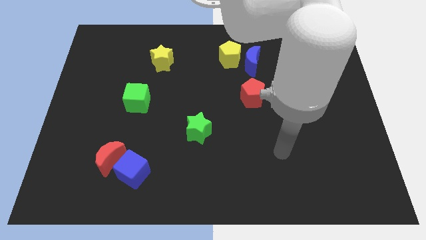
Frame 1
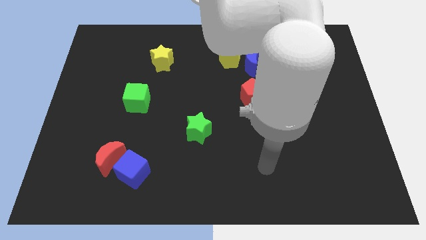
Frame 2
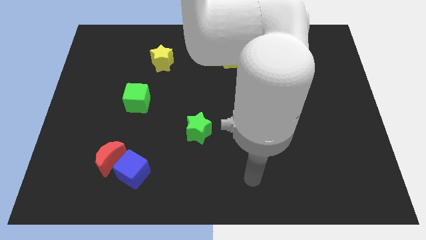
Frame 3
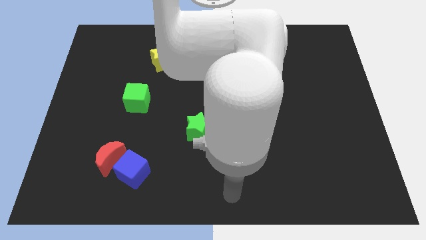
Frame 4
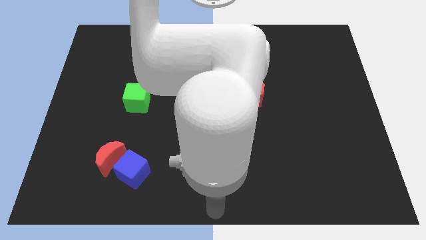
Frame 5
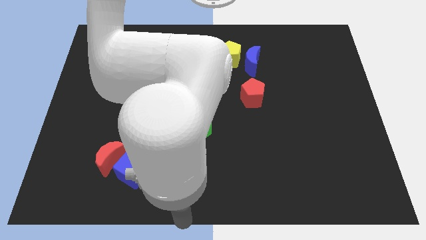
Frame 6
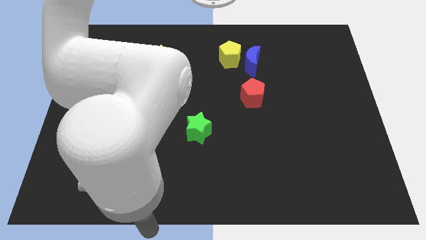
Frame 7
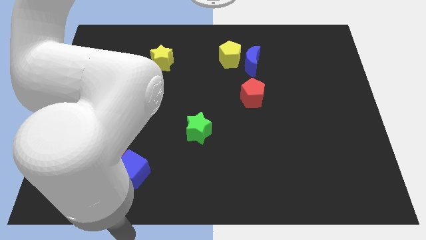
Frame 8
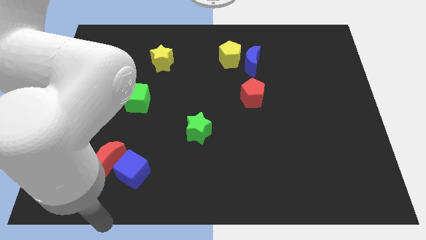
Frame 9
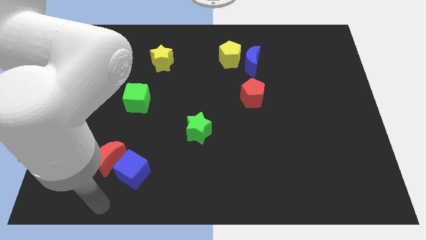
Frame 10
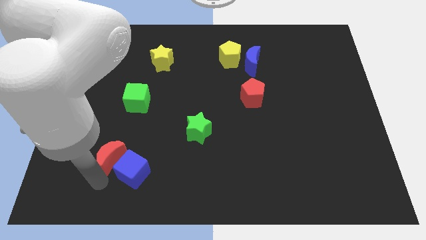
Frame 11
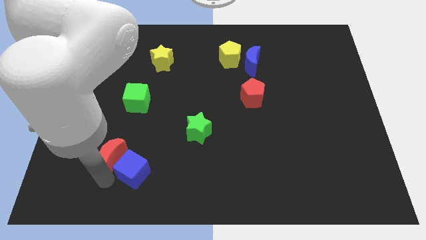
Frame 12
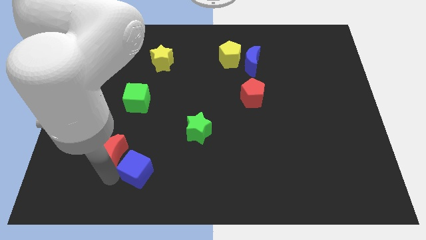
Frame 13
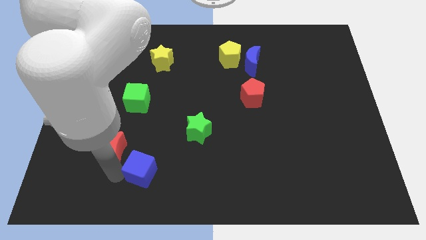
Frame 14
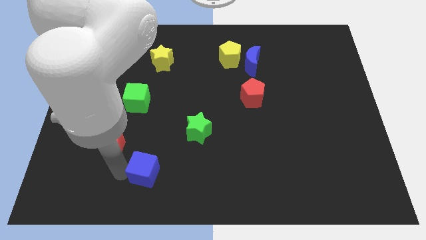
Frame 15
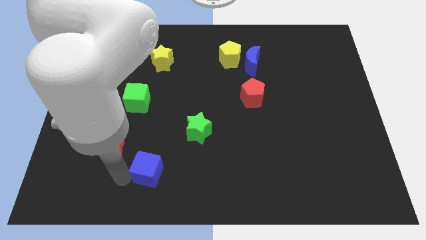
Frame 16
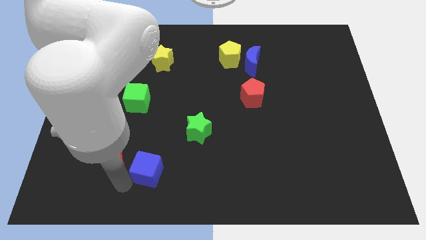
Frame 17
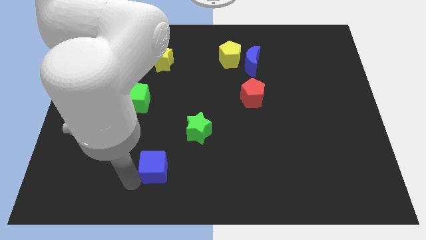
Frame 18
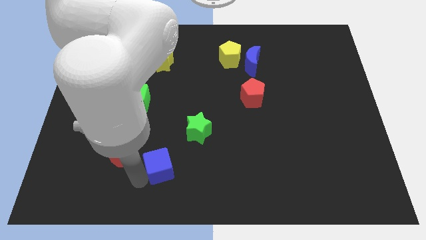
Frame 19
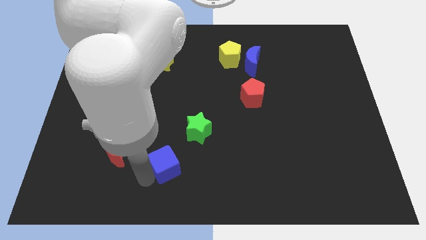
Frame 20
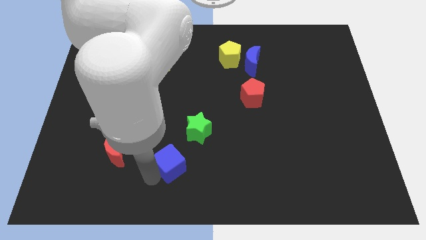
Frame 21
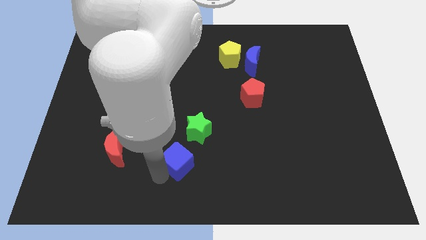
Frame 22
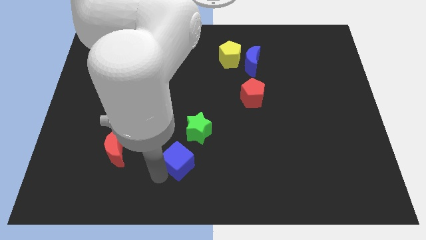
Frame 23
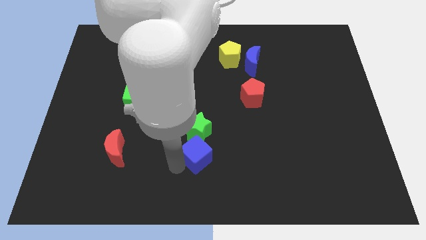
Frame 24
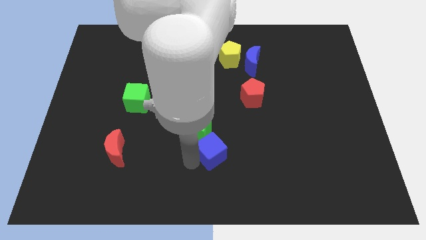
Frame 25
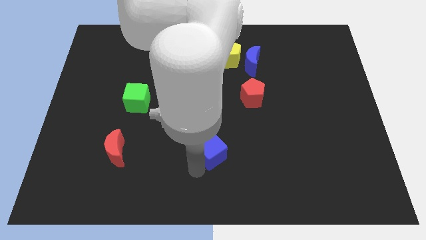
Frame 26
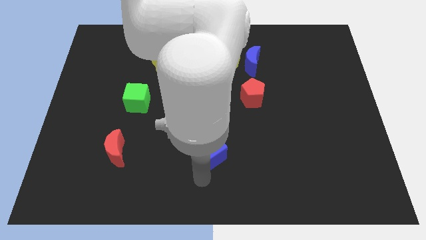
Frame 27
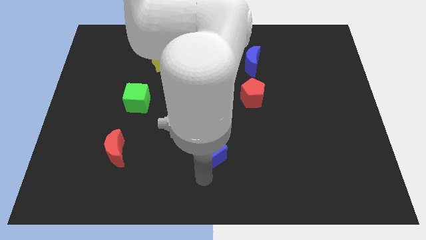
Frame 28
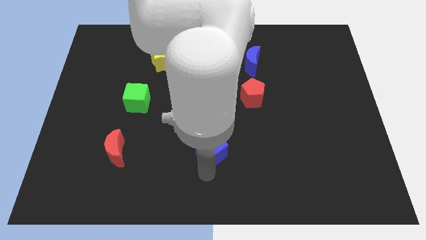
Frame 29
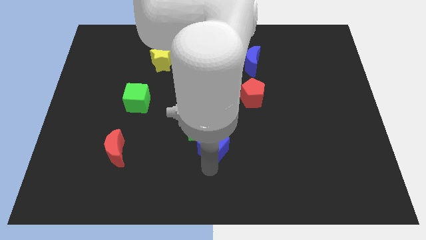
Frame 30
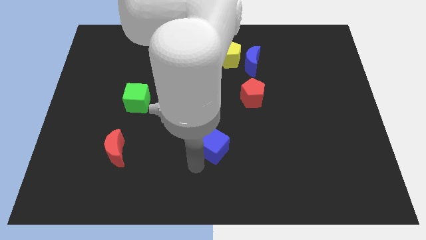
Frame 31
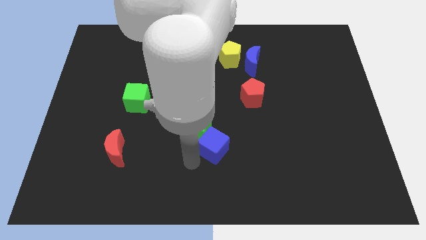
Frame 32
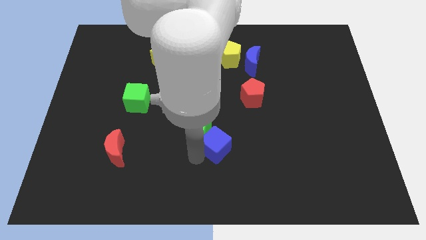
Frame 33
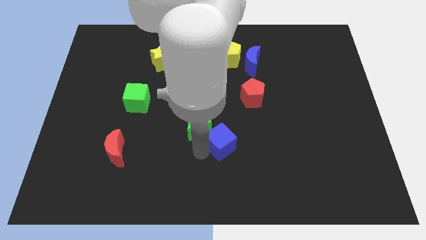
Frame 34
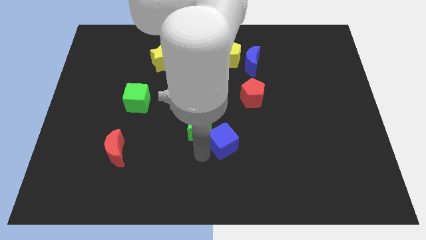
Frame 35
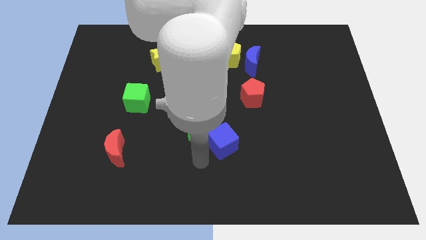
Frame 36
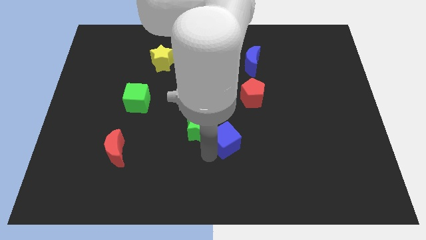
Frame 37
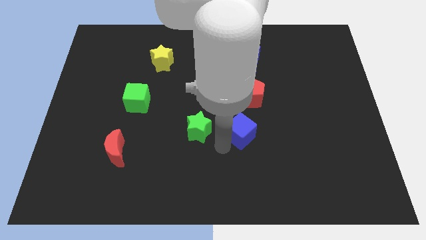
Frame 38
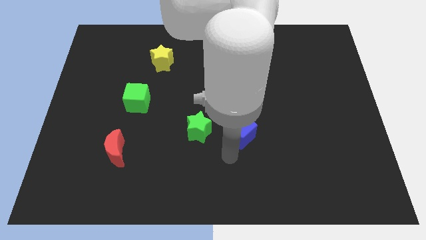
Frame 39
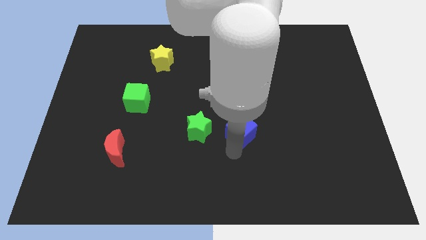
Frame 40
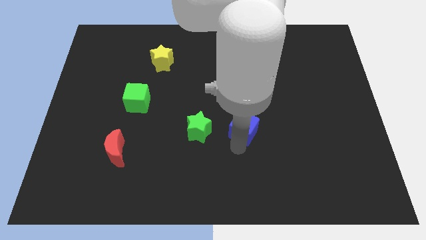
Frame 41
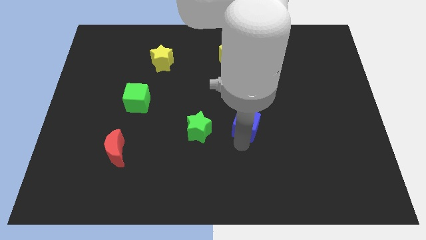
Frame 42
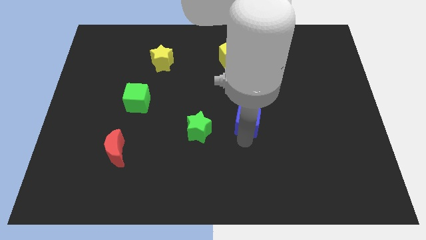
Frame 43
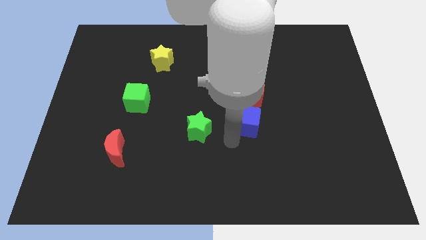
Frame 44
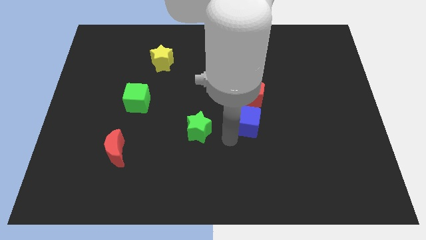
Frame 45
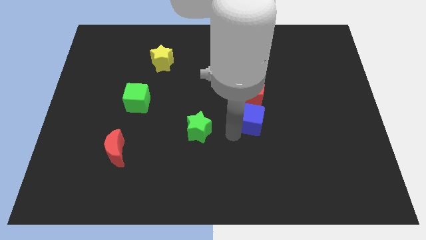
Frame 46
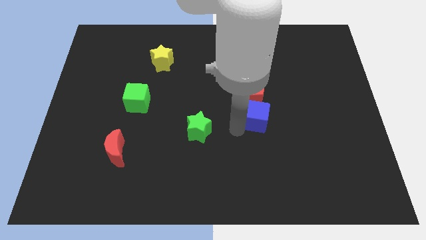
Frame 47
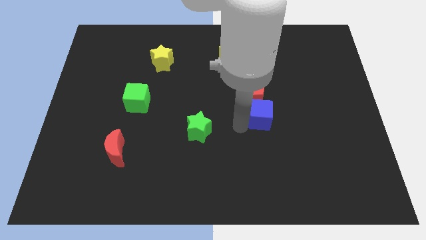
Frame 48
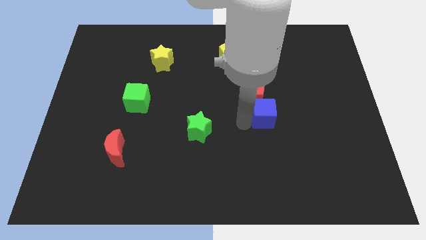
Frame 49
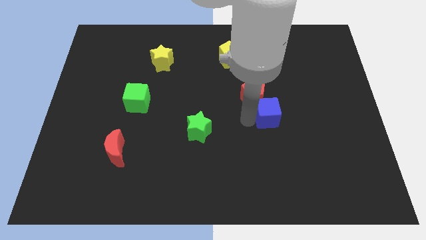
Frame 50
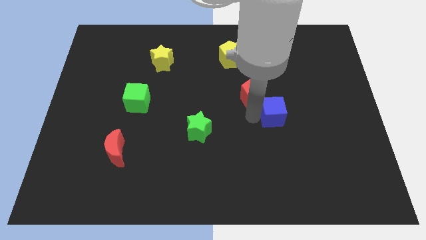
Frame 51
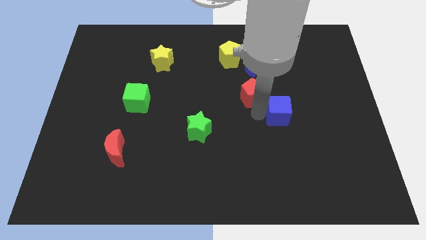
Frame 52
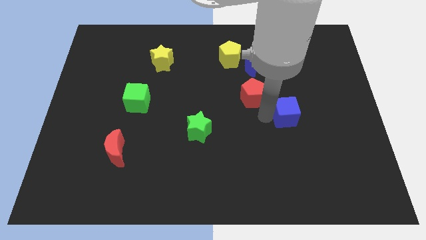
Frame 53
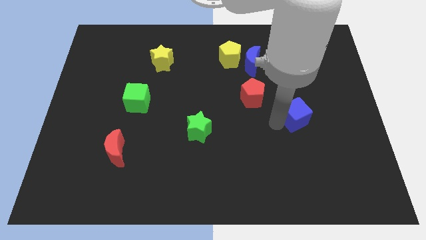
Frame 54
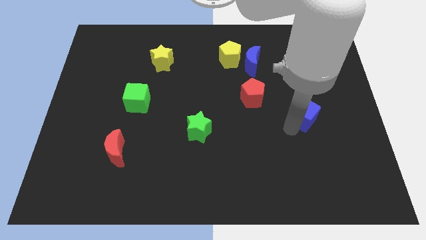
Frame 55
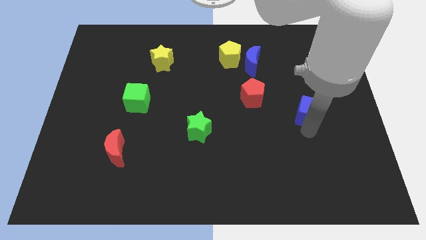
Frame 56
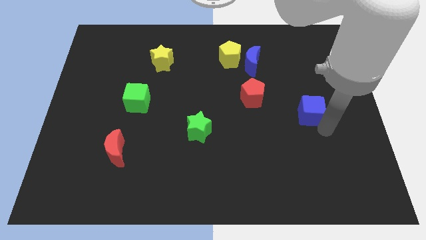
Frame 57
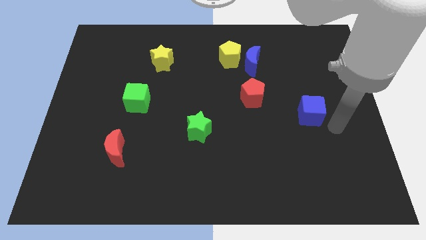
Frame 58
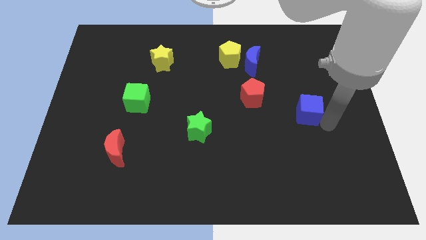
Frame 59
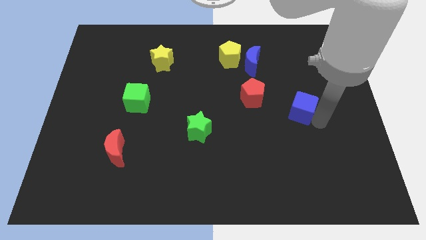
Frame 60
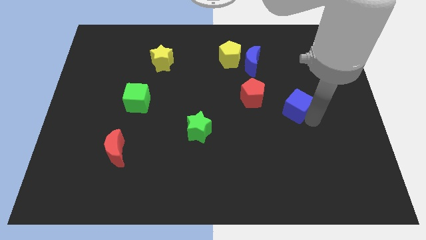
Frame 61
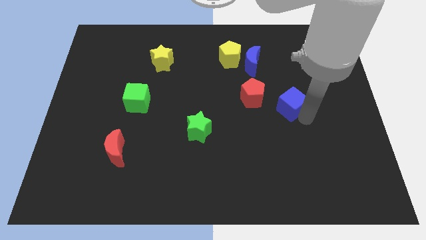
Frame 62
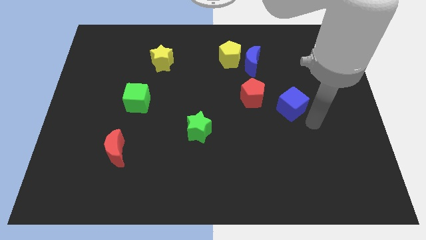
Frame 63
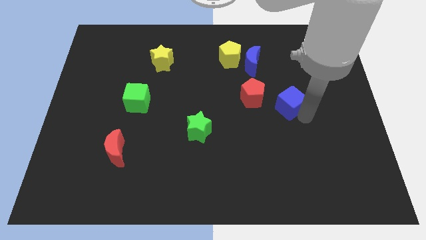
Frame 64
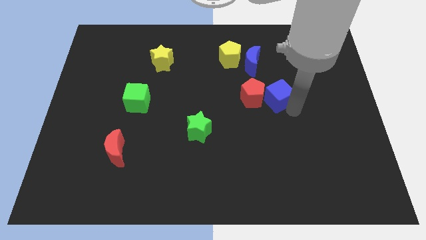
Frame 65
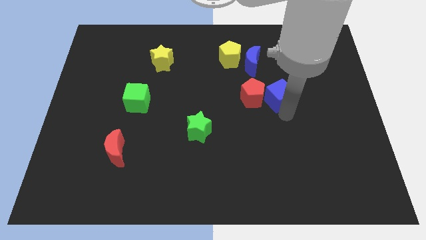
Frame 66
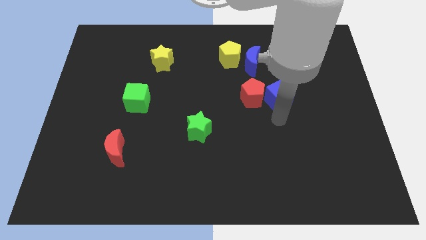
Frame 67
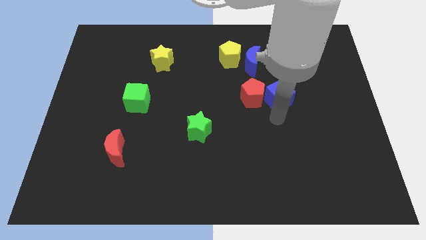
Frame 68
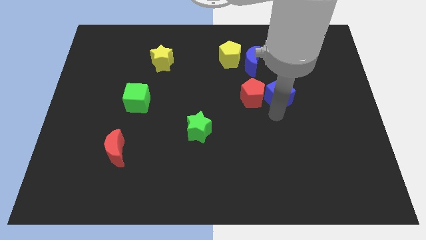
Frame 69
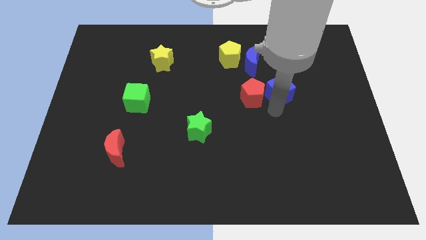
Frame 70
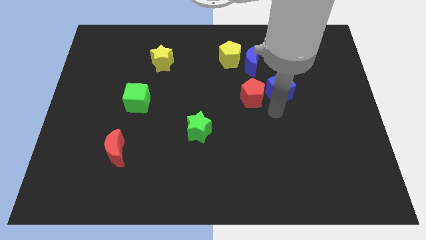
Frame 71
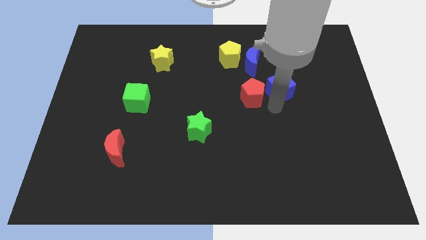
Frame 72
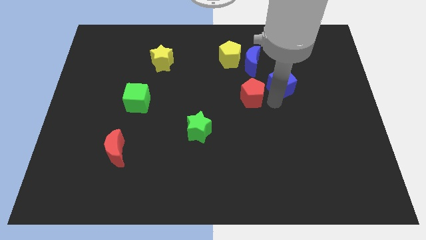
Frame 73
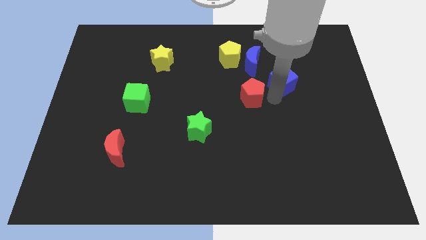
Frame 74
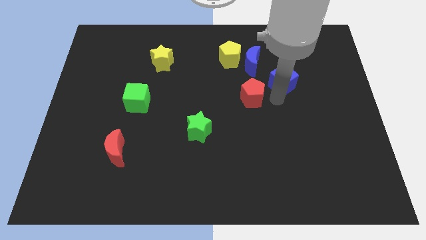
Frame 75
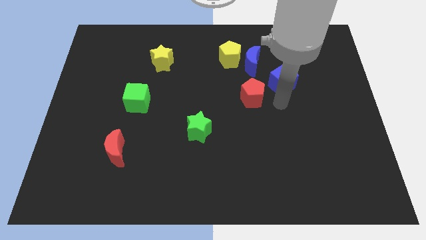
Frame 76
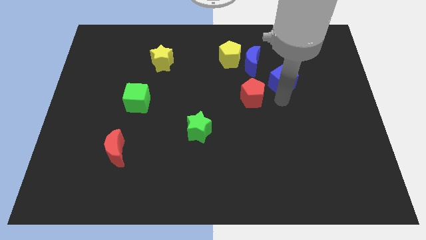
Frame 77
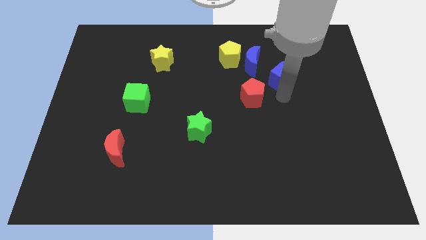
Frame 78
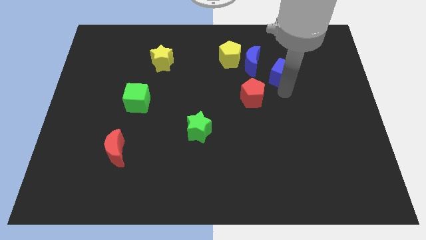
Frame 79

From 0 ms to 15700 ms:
put the blue cube to the right of the blue moon
